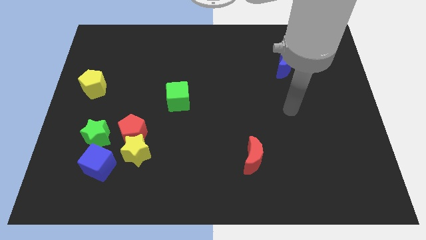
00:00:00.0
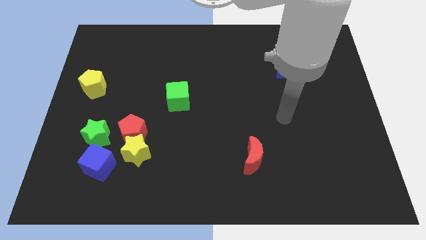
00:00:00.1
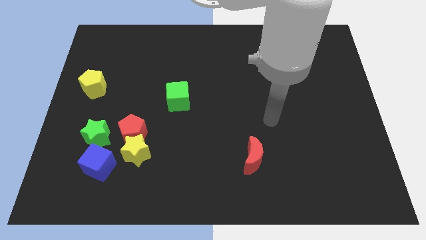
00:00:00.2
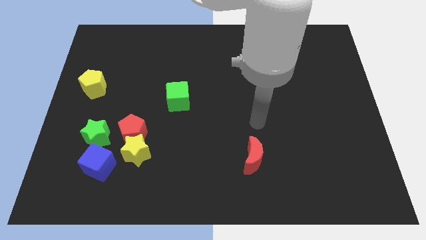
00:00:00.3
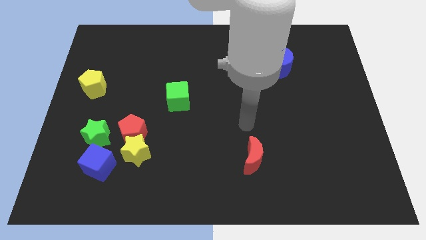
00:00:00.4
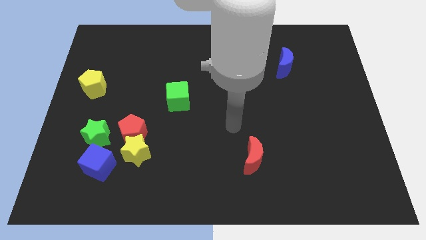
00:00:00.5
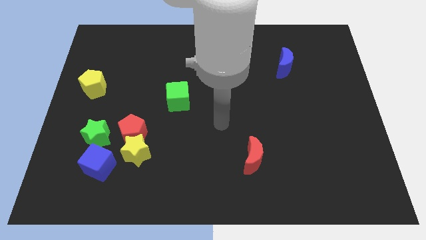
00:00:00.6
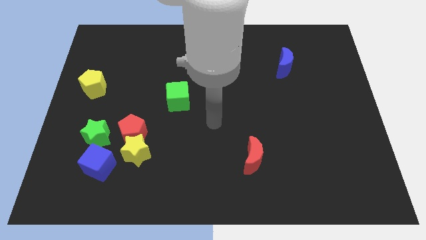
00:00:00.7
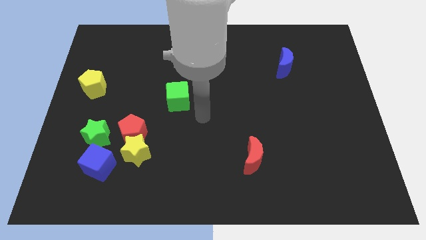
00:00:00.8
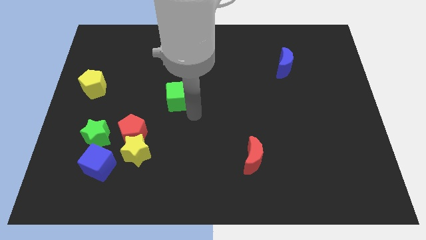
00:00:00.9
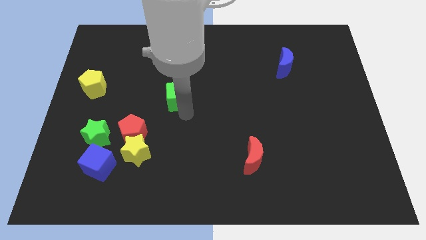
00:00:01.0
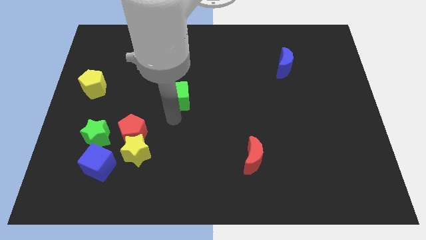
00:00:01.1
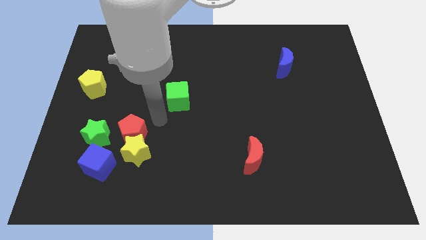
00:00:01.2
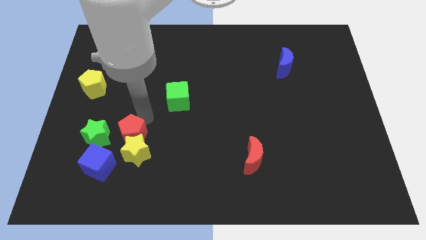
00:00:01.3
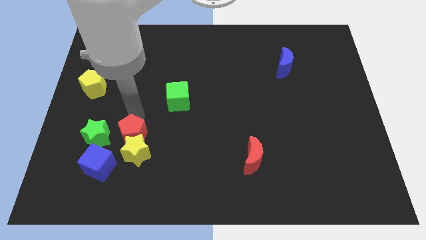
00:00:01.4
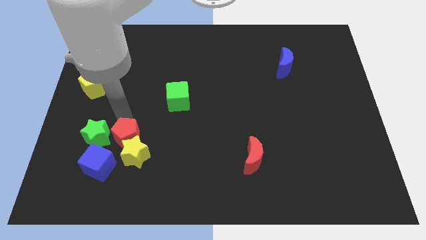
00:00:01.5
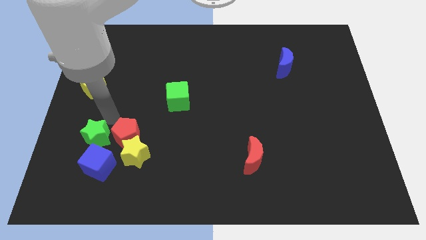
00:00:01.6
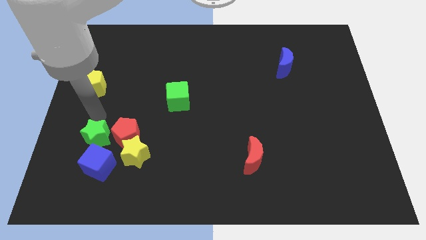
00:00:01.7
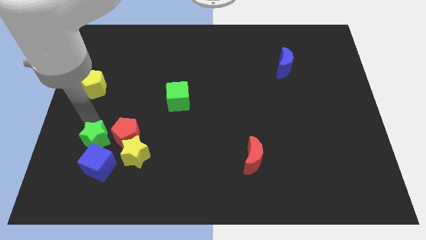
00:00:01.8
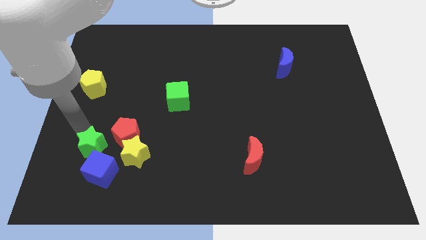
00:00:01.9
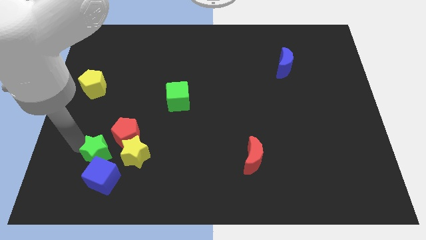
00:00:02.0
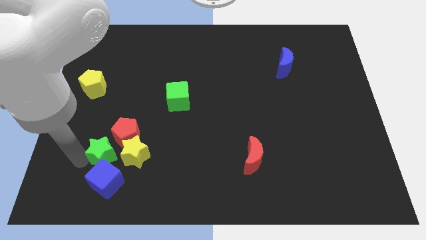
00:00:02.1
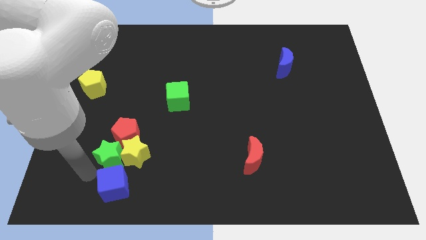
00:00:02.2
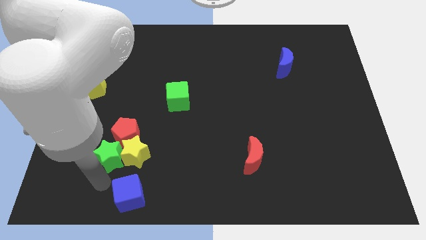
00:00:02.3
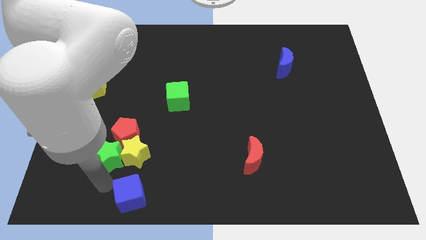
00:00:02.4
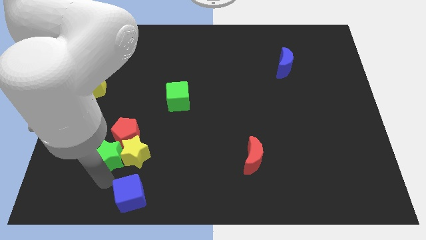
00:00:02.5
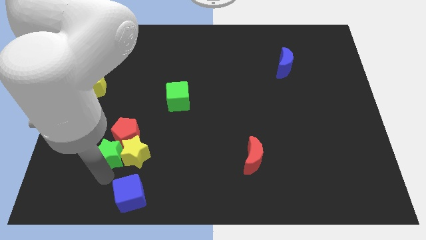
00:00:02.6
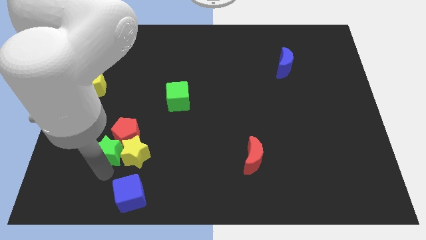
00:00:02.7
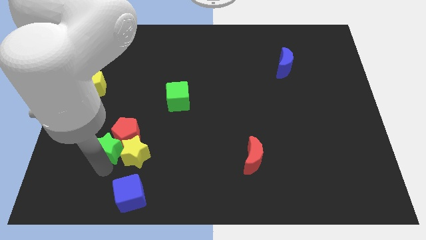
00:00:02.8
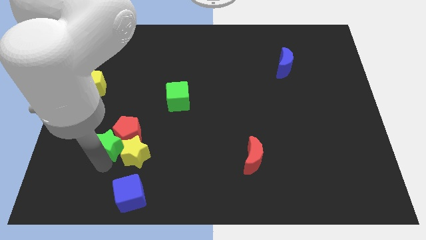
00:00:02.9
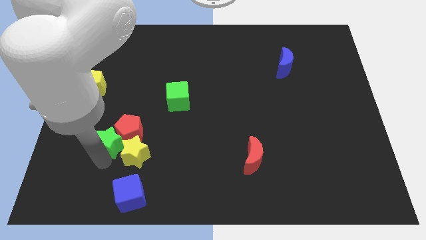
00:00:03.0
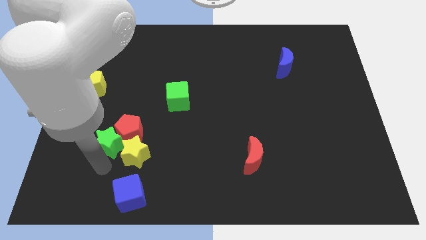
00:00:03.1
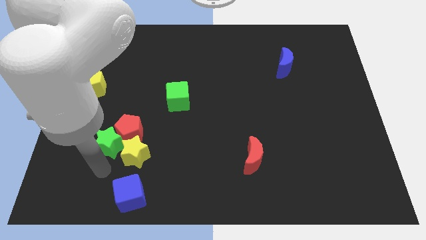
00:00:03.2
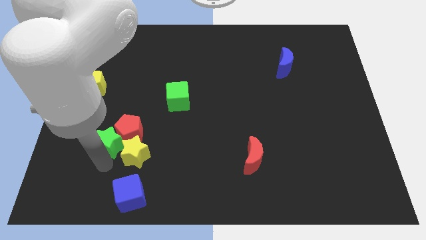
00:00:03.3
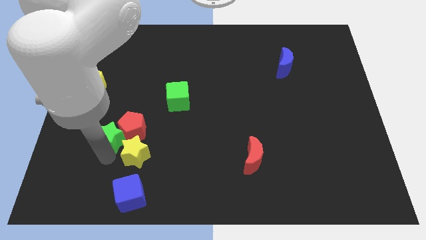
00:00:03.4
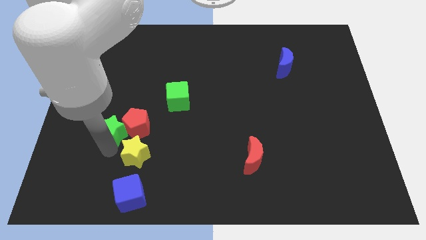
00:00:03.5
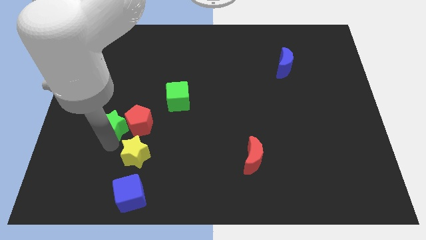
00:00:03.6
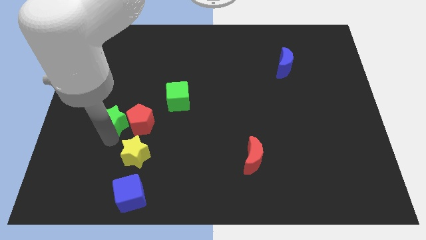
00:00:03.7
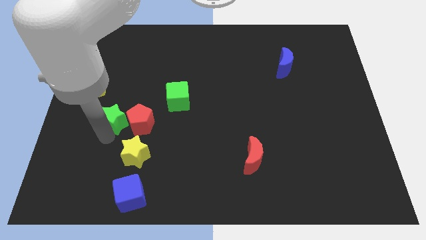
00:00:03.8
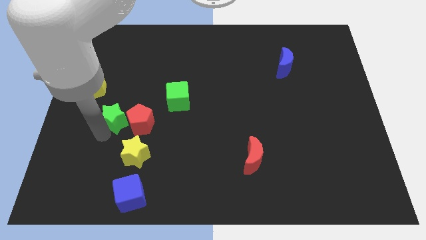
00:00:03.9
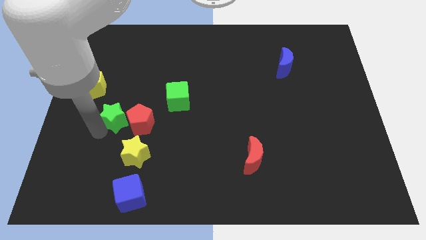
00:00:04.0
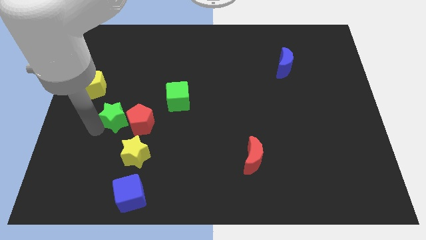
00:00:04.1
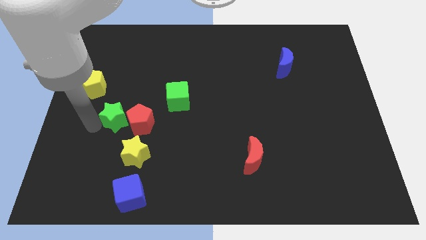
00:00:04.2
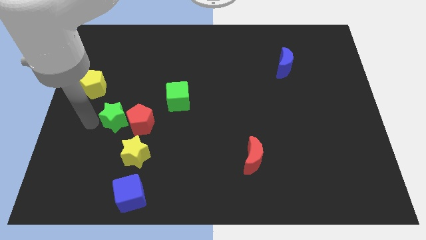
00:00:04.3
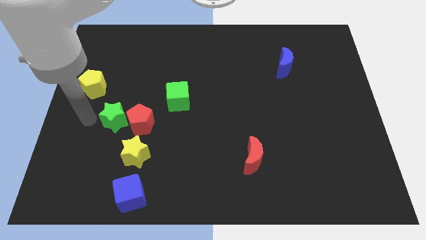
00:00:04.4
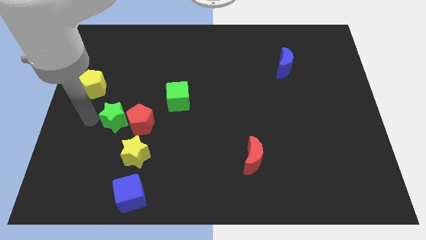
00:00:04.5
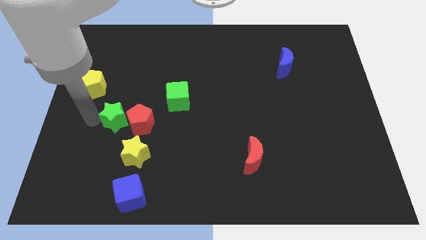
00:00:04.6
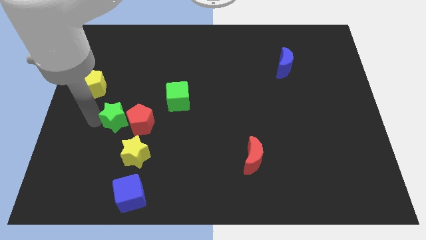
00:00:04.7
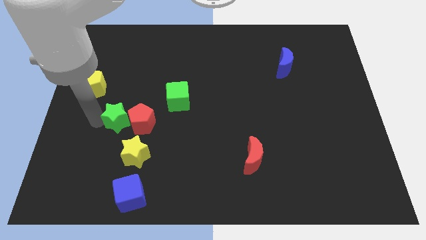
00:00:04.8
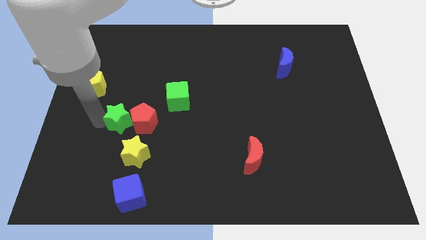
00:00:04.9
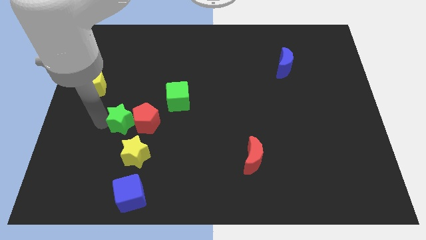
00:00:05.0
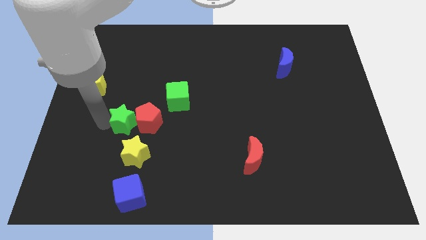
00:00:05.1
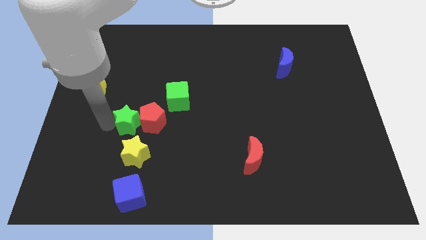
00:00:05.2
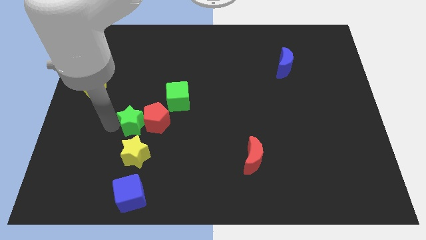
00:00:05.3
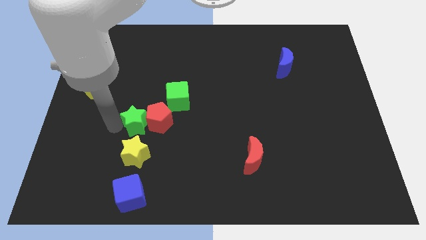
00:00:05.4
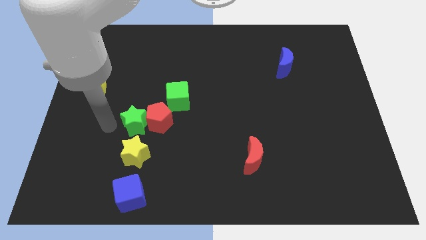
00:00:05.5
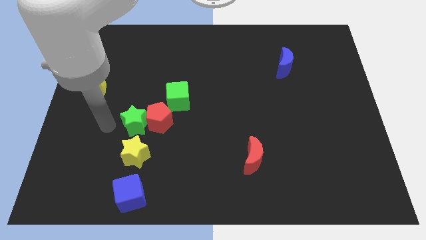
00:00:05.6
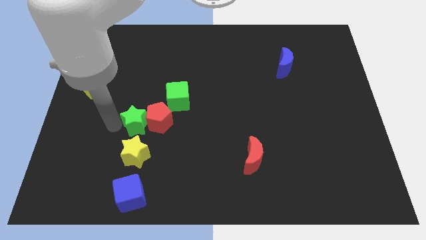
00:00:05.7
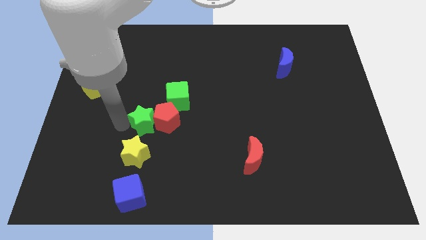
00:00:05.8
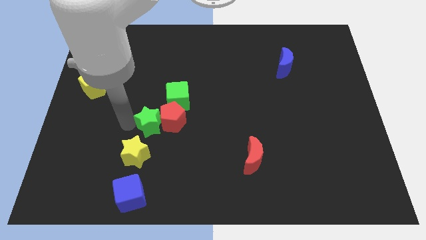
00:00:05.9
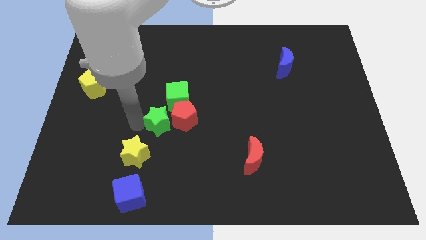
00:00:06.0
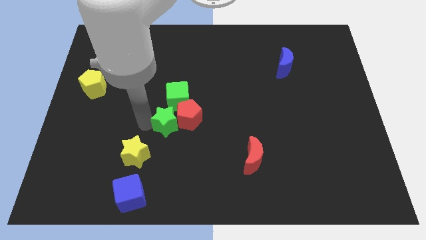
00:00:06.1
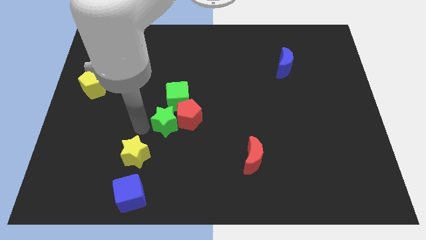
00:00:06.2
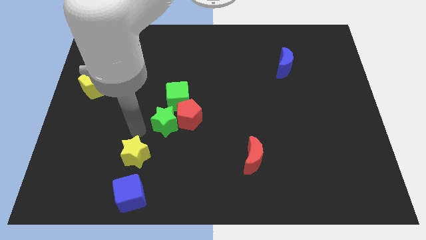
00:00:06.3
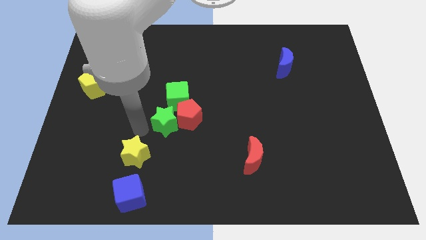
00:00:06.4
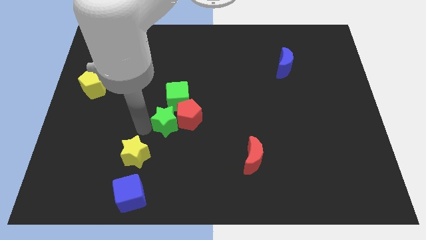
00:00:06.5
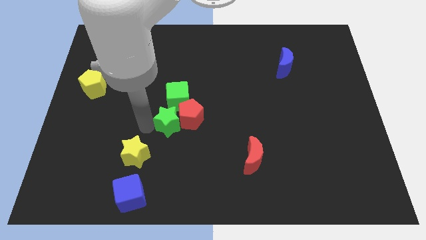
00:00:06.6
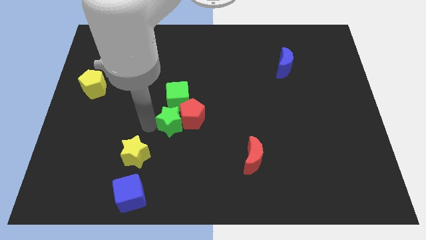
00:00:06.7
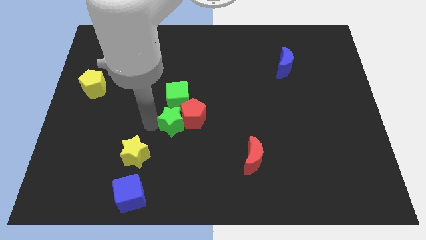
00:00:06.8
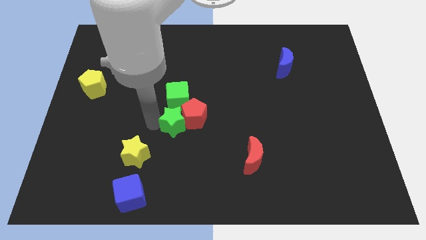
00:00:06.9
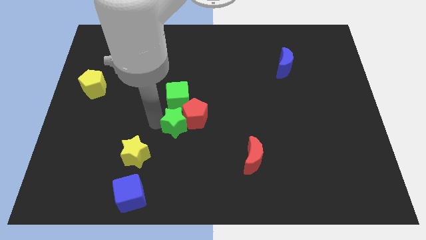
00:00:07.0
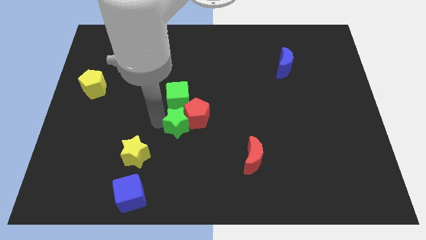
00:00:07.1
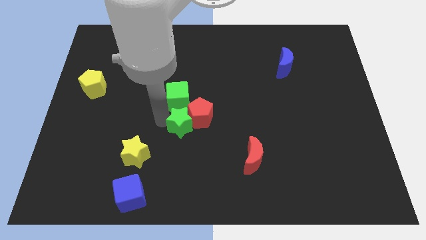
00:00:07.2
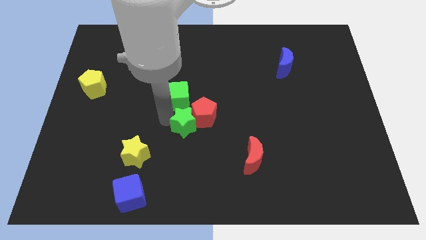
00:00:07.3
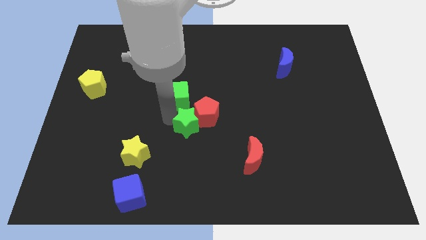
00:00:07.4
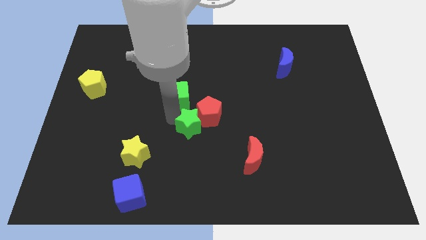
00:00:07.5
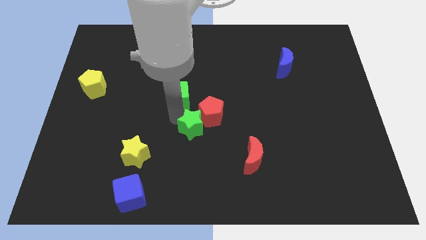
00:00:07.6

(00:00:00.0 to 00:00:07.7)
move the green star right

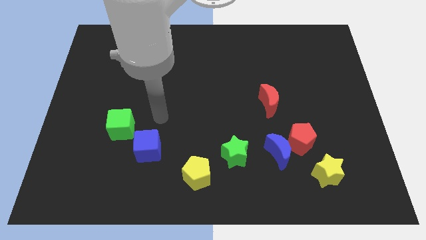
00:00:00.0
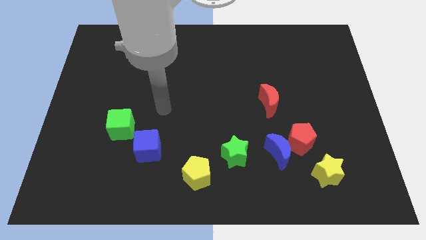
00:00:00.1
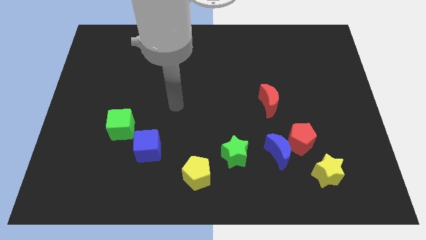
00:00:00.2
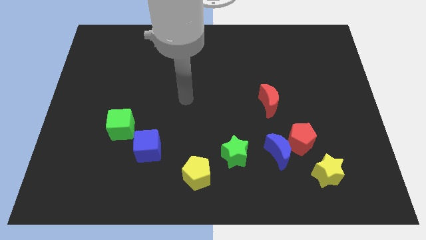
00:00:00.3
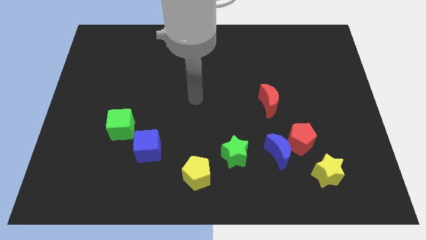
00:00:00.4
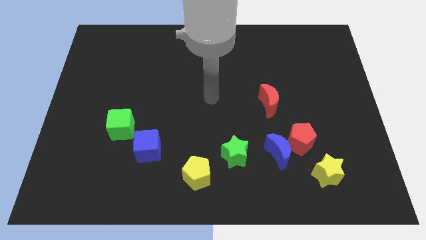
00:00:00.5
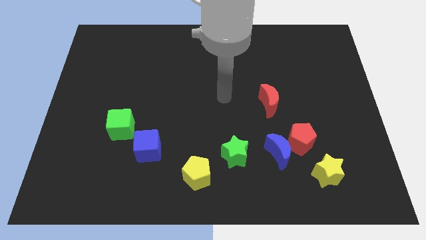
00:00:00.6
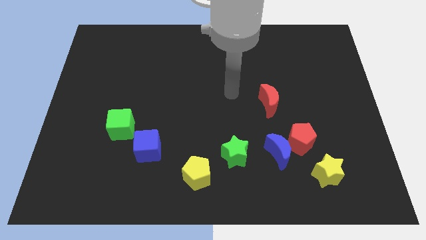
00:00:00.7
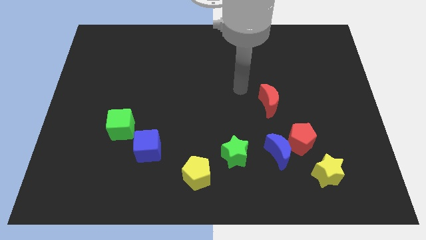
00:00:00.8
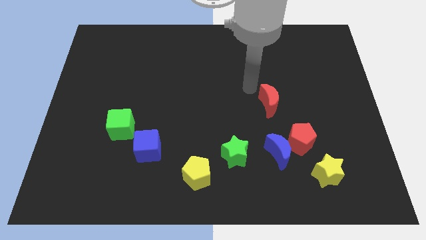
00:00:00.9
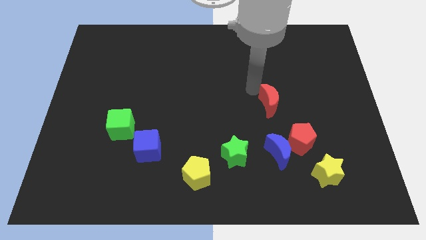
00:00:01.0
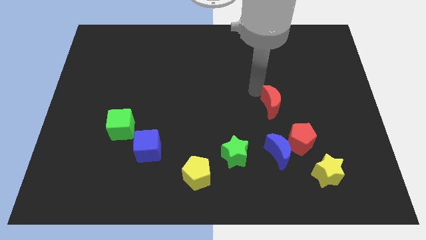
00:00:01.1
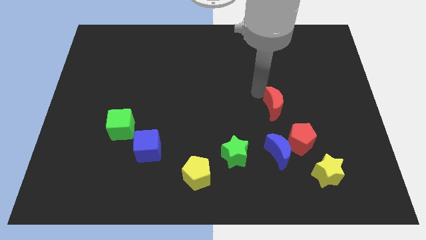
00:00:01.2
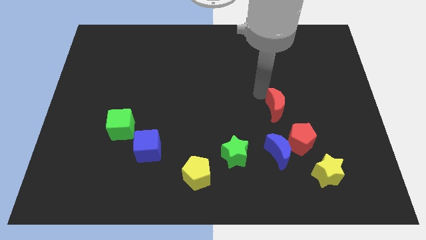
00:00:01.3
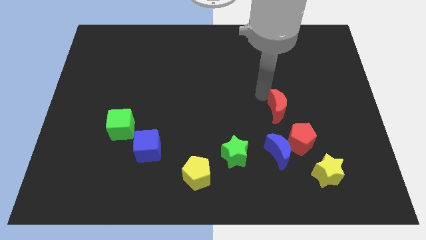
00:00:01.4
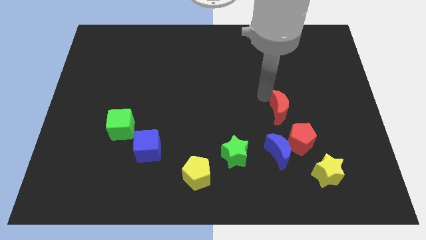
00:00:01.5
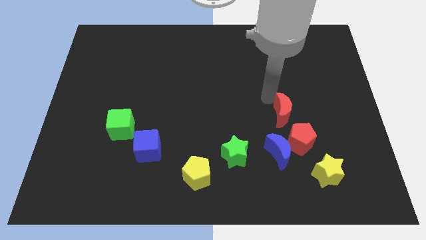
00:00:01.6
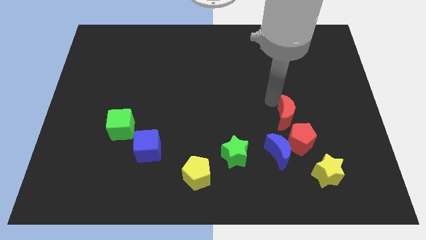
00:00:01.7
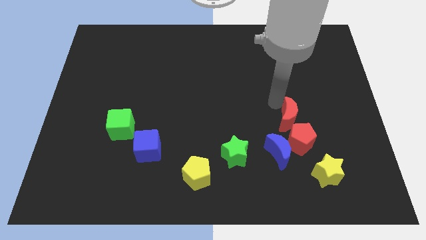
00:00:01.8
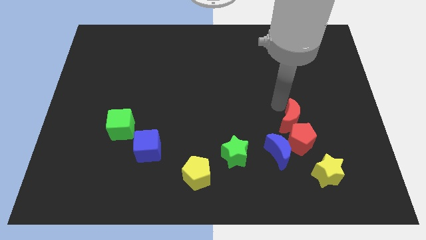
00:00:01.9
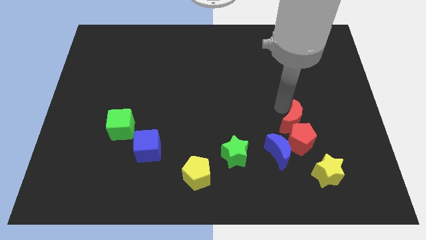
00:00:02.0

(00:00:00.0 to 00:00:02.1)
push the red moon a little bit diagonally downwards and right
